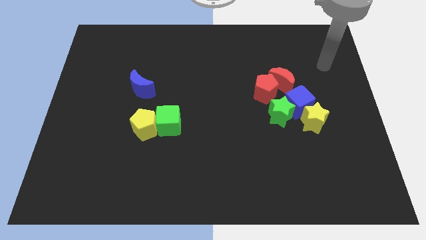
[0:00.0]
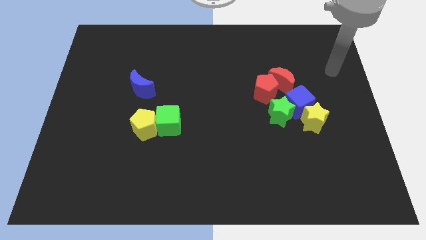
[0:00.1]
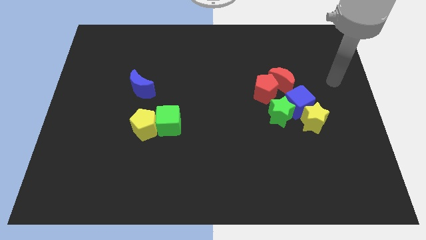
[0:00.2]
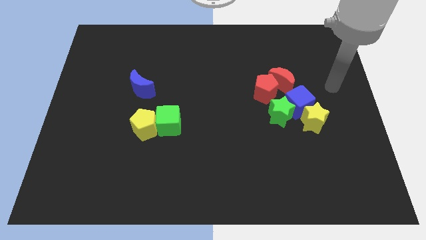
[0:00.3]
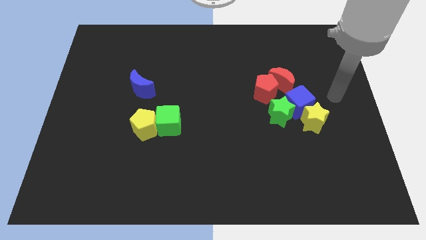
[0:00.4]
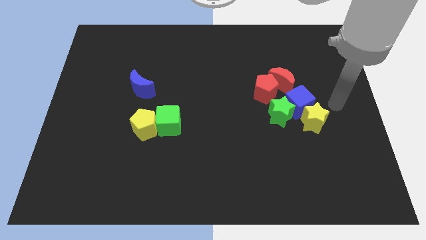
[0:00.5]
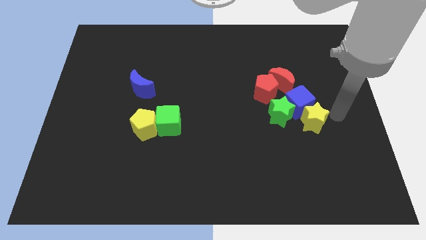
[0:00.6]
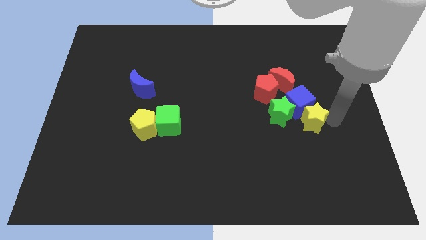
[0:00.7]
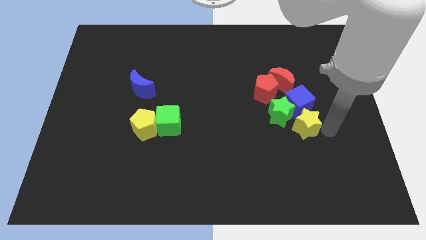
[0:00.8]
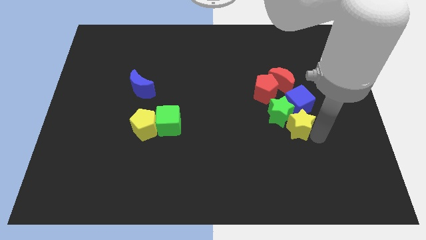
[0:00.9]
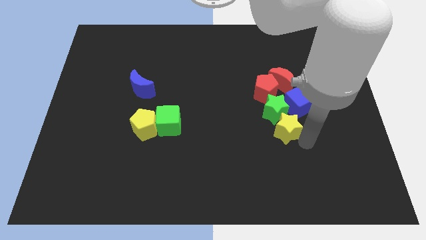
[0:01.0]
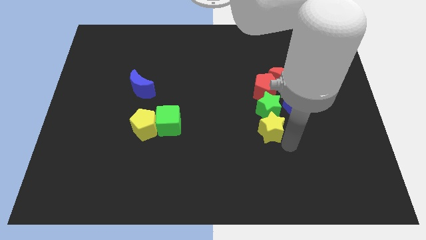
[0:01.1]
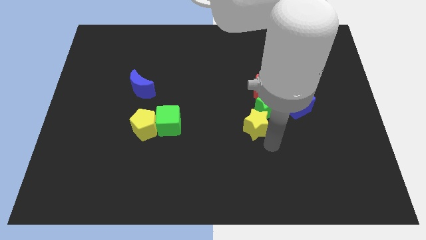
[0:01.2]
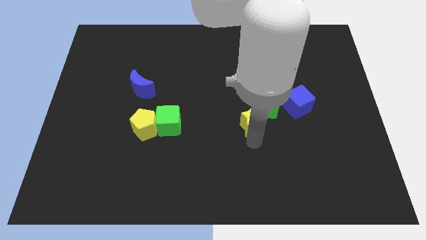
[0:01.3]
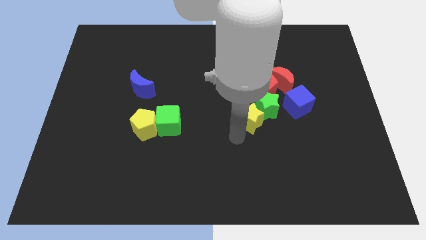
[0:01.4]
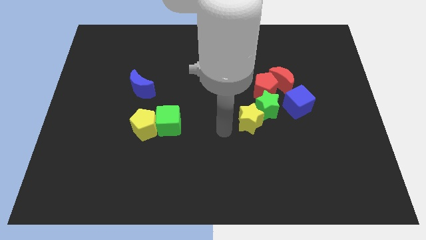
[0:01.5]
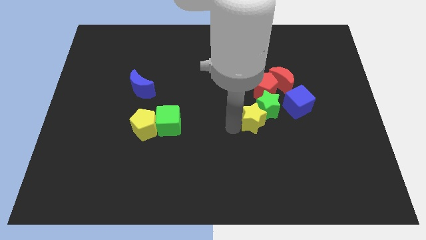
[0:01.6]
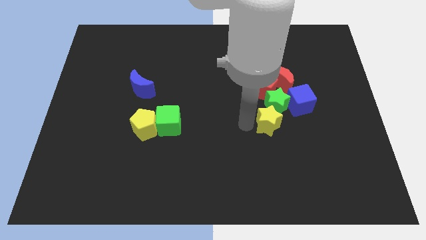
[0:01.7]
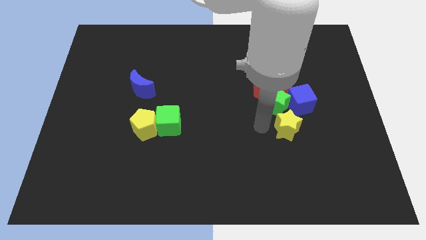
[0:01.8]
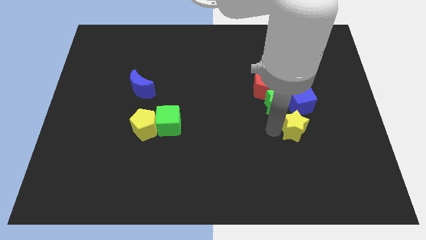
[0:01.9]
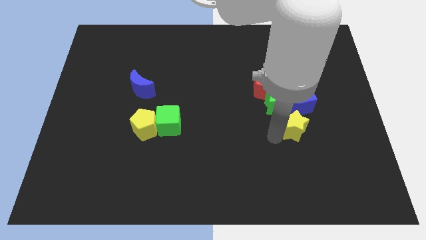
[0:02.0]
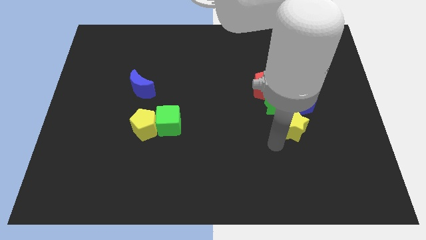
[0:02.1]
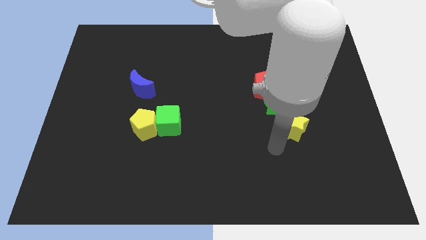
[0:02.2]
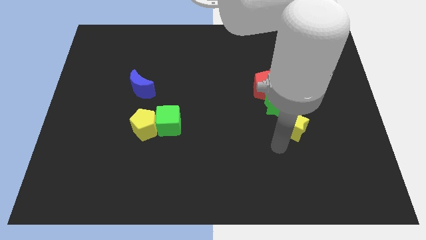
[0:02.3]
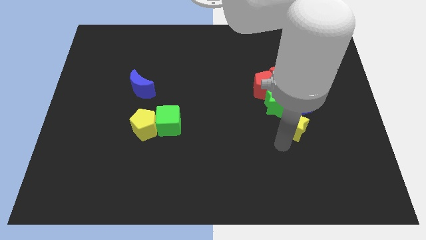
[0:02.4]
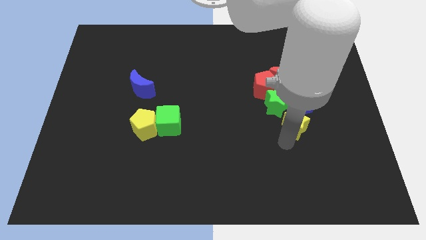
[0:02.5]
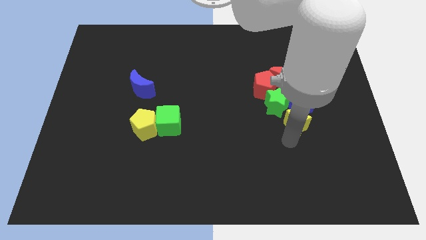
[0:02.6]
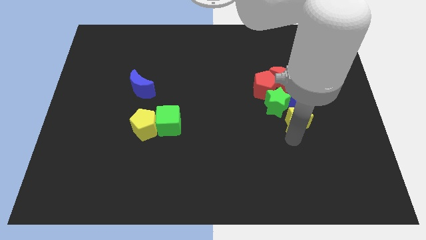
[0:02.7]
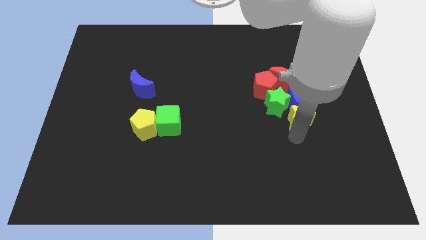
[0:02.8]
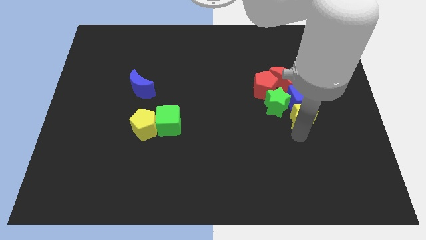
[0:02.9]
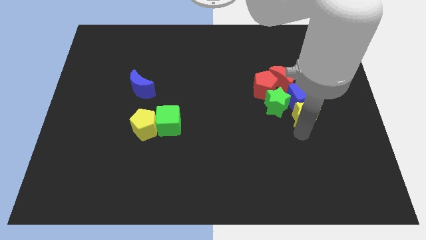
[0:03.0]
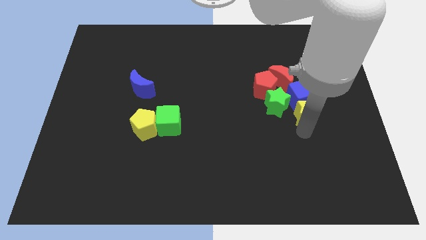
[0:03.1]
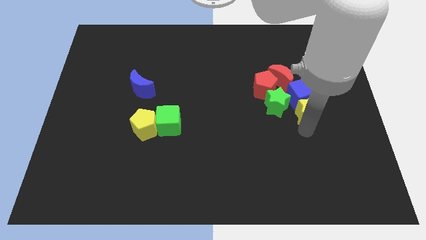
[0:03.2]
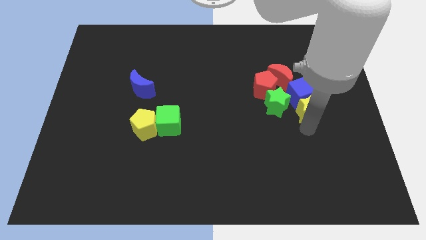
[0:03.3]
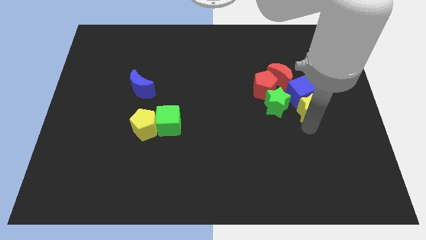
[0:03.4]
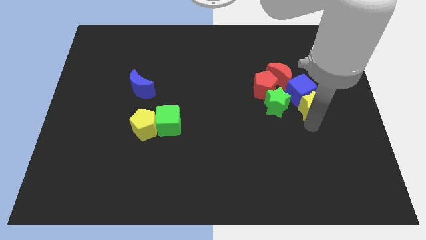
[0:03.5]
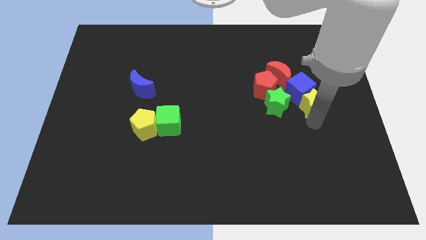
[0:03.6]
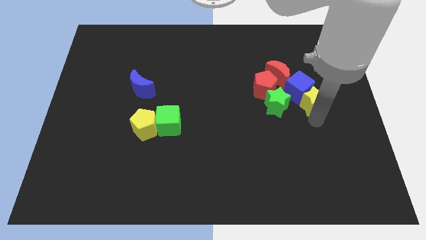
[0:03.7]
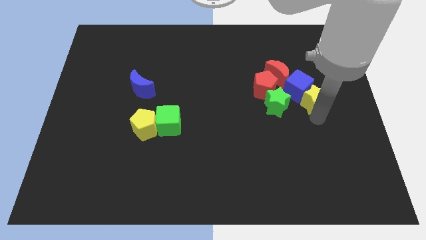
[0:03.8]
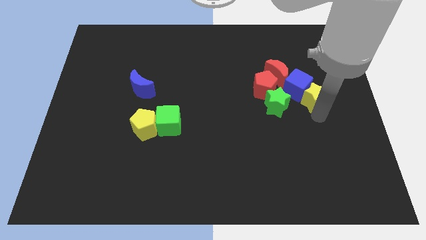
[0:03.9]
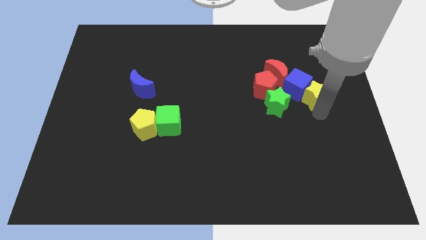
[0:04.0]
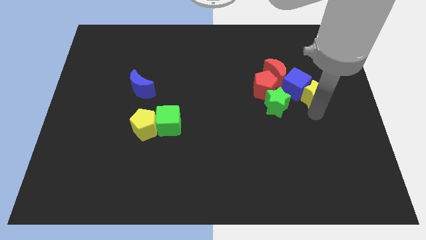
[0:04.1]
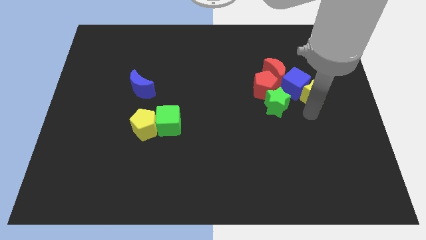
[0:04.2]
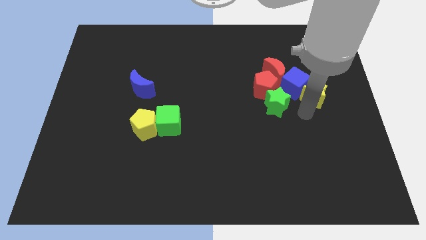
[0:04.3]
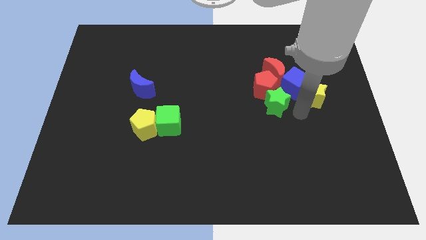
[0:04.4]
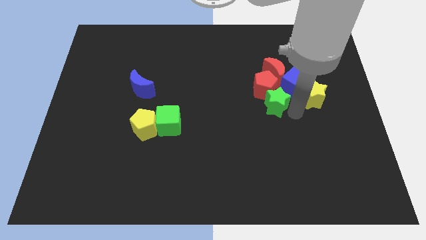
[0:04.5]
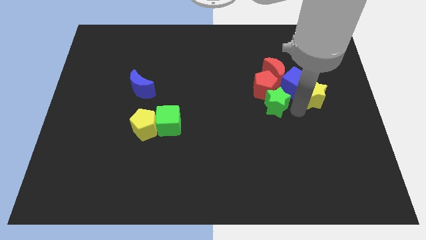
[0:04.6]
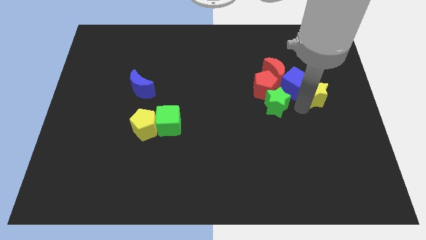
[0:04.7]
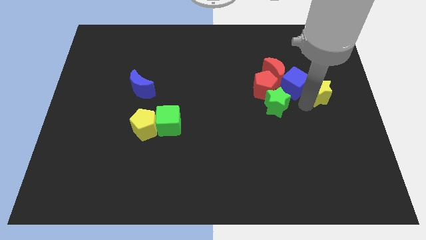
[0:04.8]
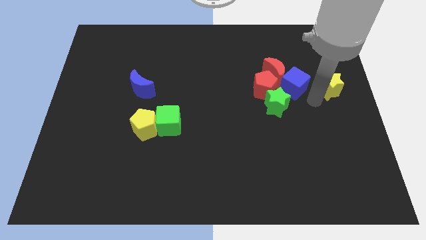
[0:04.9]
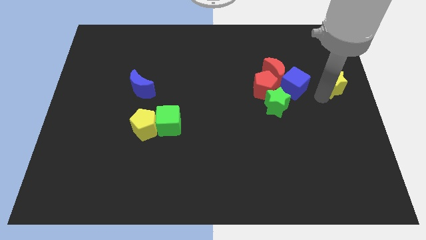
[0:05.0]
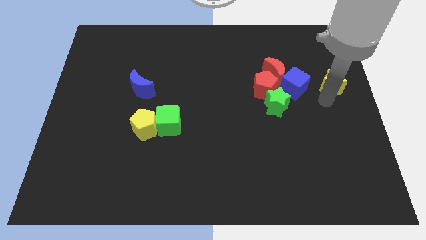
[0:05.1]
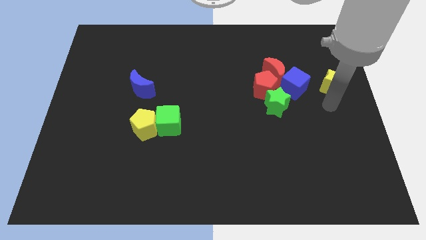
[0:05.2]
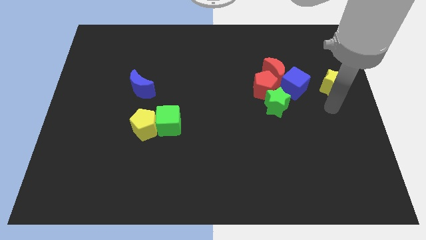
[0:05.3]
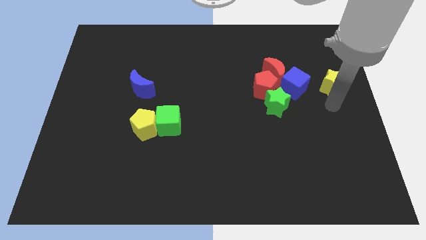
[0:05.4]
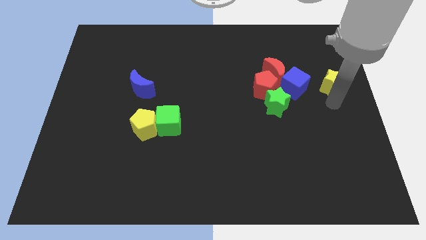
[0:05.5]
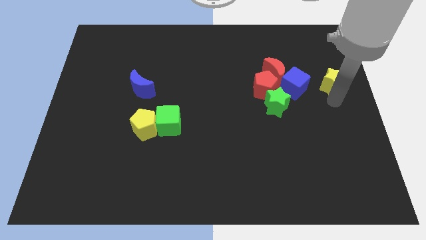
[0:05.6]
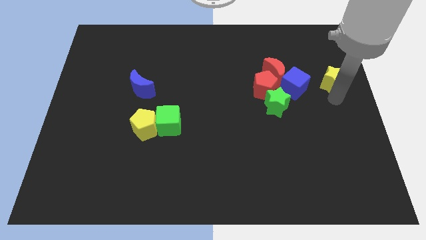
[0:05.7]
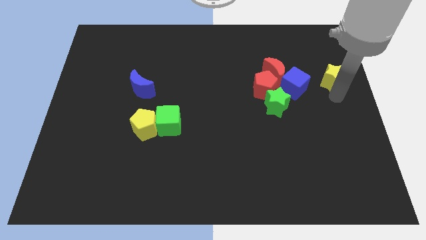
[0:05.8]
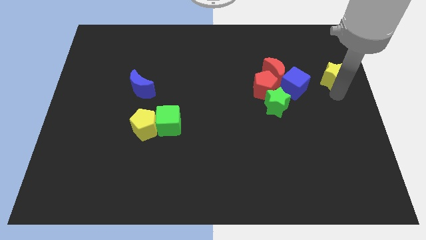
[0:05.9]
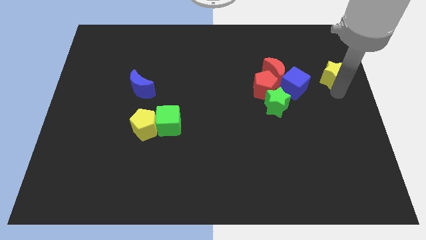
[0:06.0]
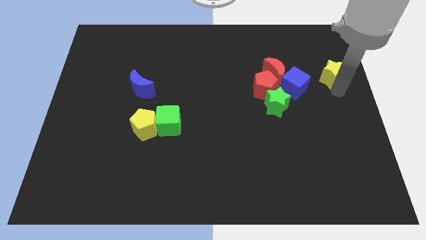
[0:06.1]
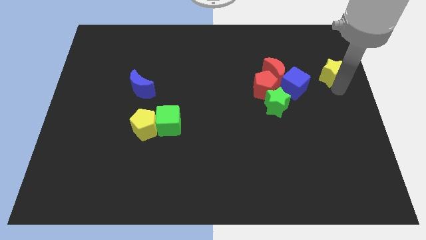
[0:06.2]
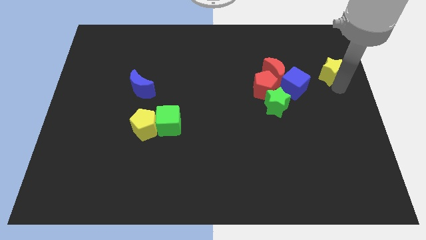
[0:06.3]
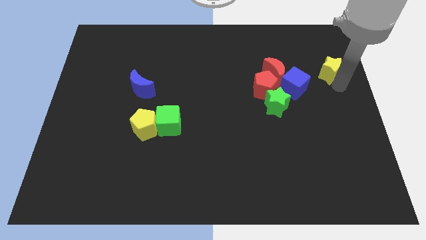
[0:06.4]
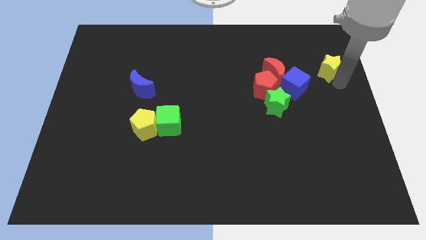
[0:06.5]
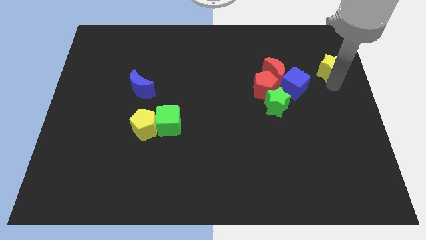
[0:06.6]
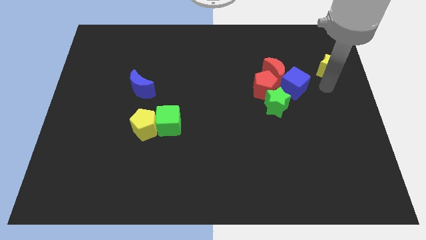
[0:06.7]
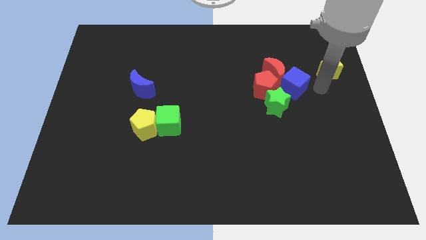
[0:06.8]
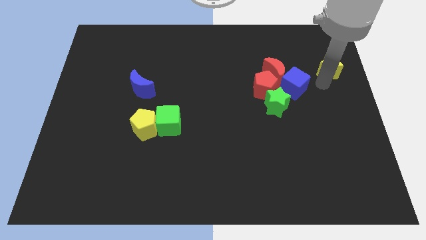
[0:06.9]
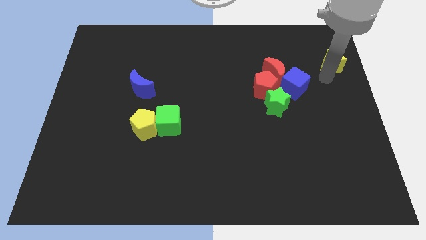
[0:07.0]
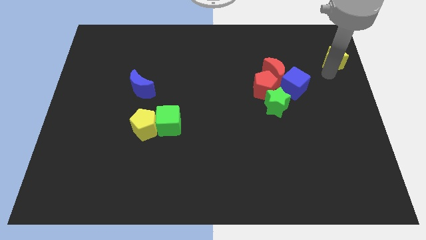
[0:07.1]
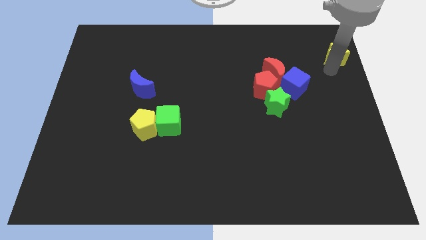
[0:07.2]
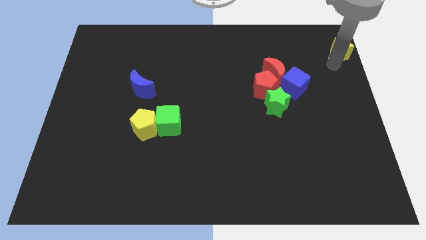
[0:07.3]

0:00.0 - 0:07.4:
push the yellow star to the upper right corner
